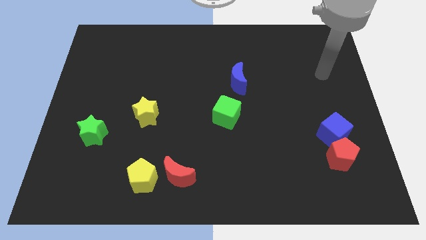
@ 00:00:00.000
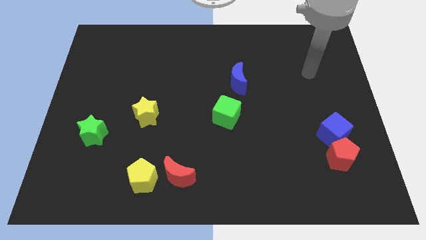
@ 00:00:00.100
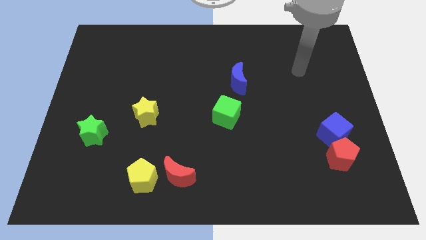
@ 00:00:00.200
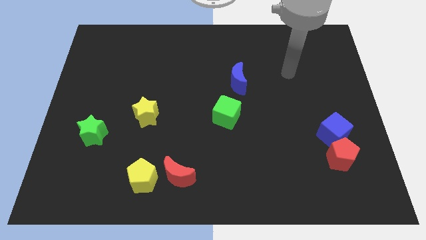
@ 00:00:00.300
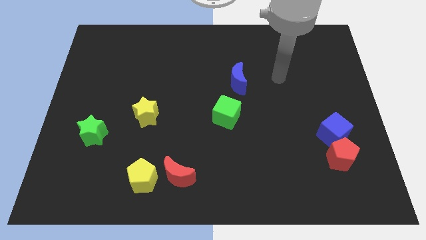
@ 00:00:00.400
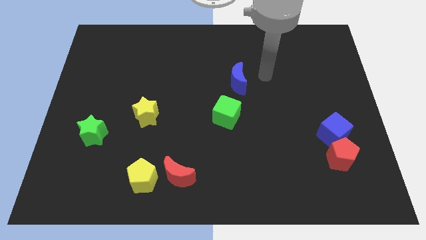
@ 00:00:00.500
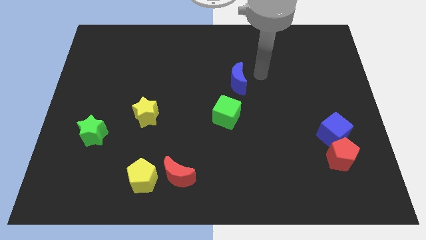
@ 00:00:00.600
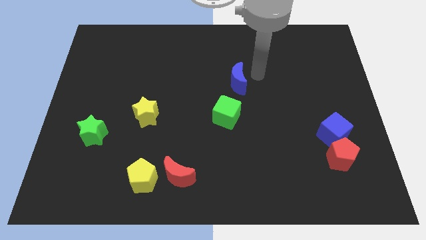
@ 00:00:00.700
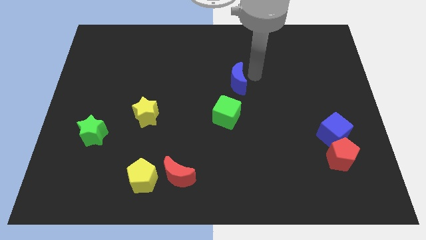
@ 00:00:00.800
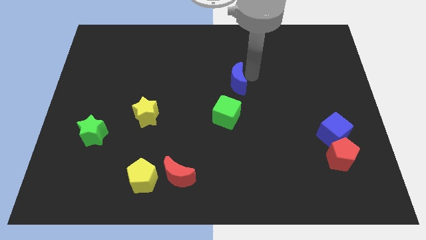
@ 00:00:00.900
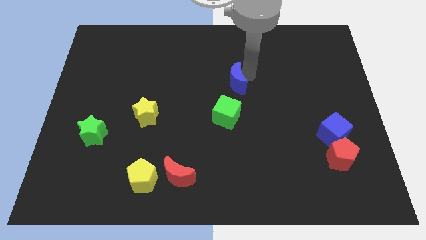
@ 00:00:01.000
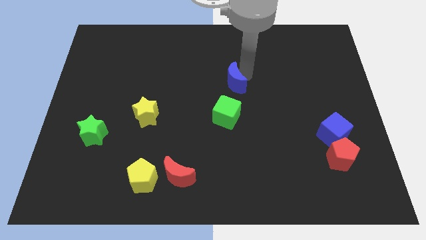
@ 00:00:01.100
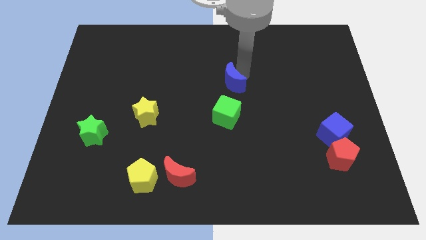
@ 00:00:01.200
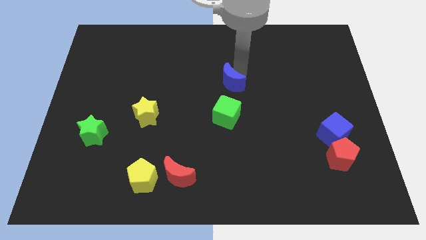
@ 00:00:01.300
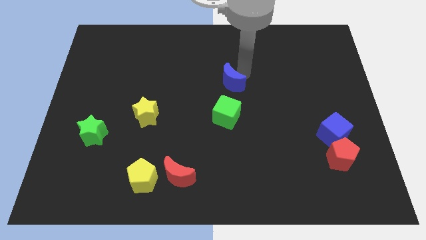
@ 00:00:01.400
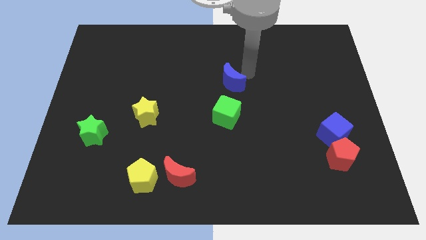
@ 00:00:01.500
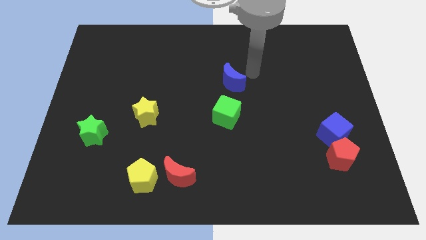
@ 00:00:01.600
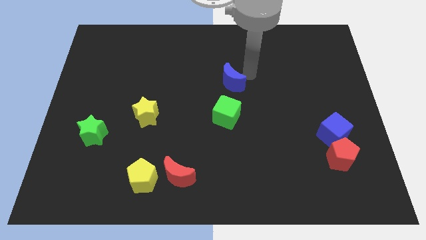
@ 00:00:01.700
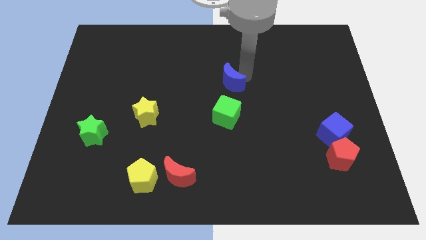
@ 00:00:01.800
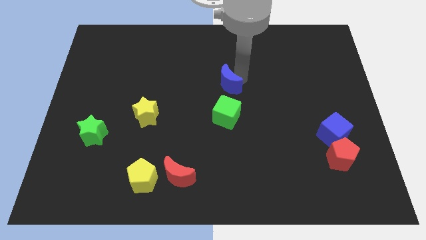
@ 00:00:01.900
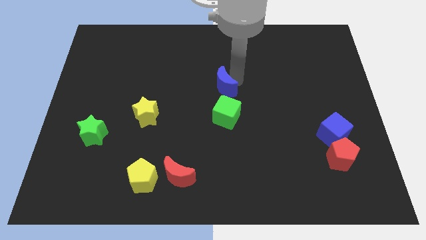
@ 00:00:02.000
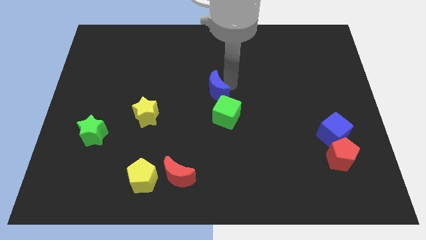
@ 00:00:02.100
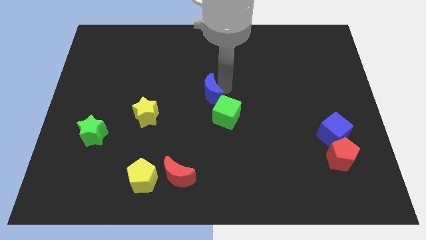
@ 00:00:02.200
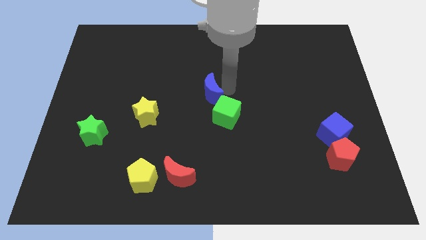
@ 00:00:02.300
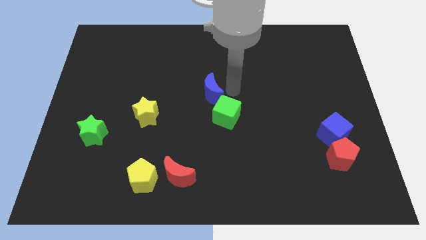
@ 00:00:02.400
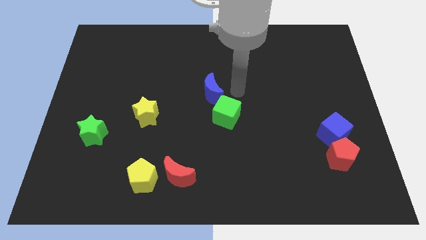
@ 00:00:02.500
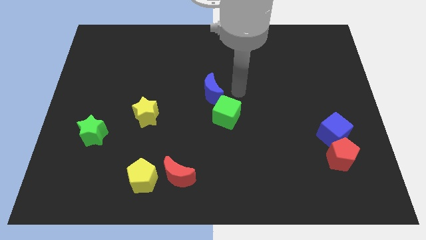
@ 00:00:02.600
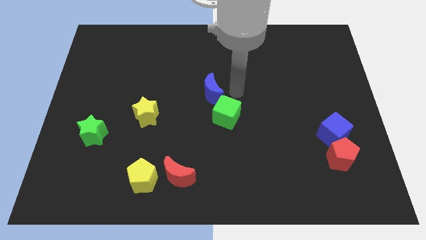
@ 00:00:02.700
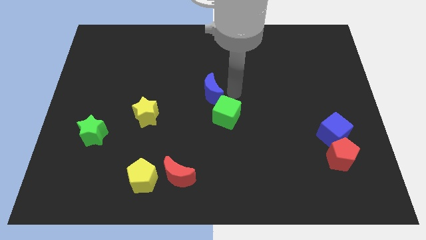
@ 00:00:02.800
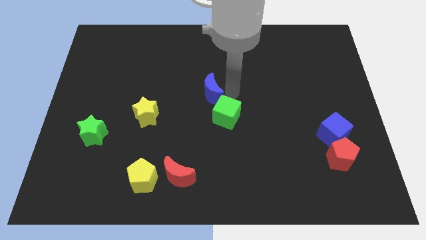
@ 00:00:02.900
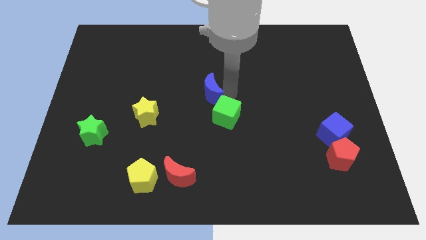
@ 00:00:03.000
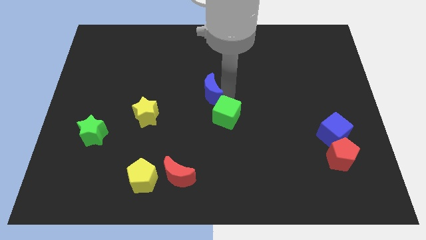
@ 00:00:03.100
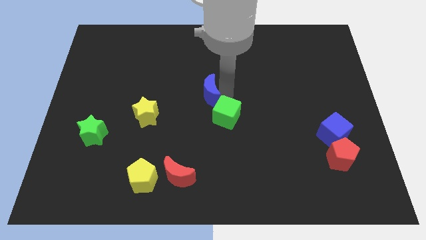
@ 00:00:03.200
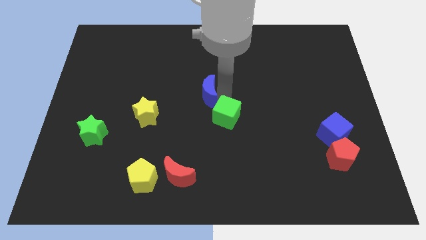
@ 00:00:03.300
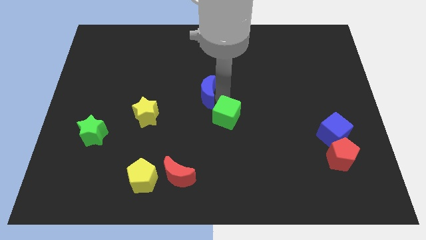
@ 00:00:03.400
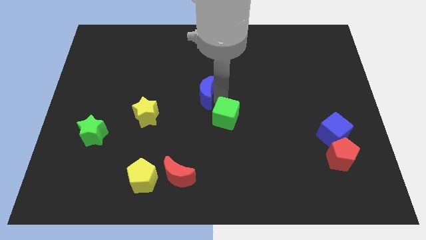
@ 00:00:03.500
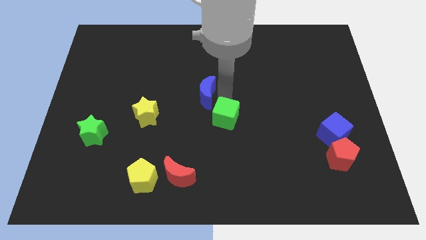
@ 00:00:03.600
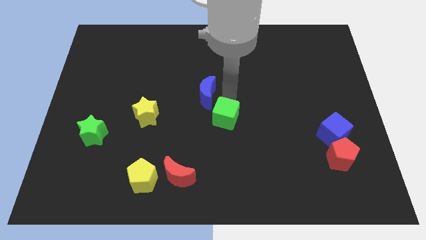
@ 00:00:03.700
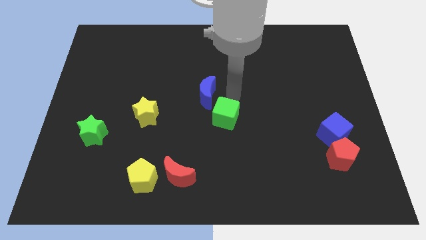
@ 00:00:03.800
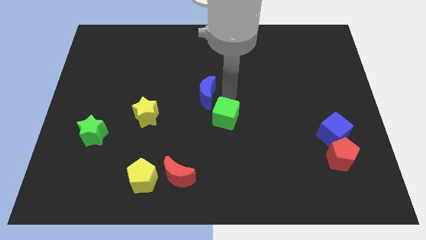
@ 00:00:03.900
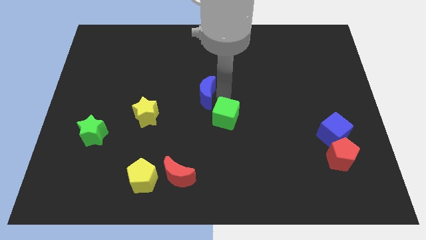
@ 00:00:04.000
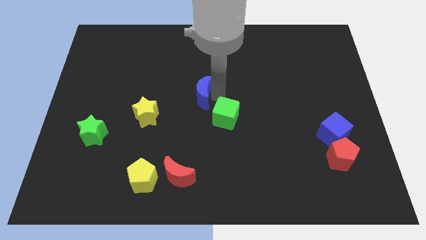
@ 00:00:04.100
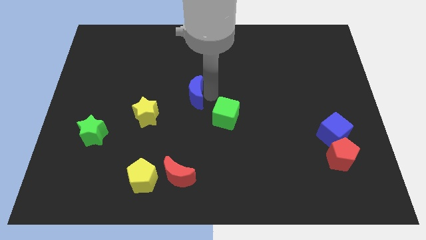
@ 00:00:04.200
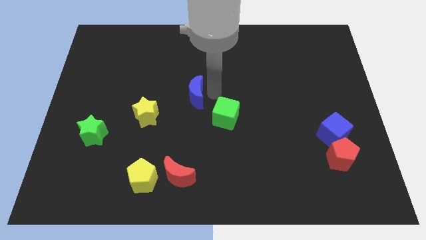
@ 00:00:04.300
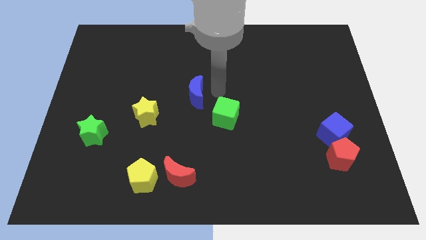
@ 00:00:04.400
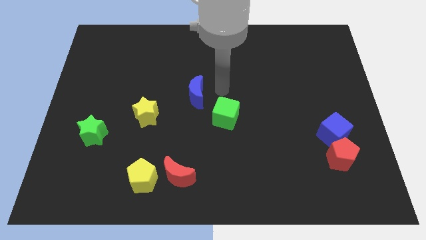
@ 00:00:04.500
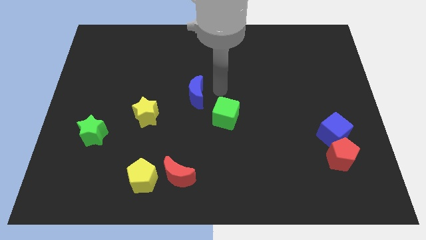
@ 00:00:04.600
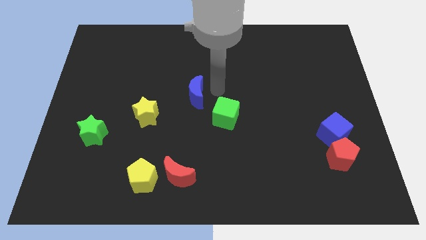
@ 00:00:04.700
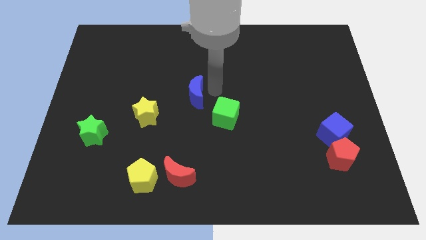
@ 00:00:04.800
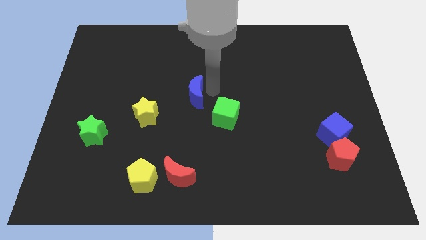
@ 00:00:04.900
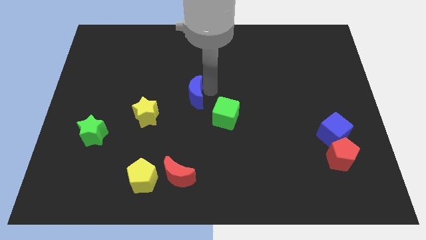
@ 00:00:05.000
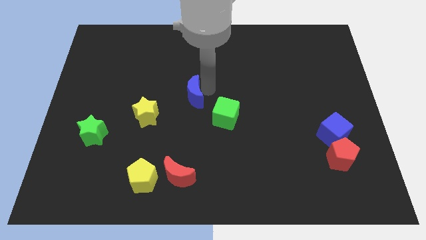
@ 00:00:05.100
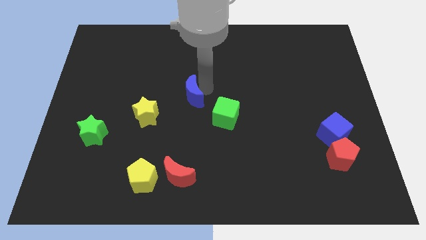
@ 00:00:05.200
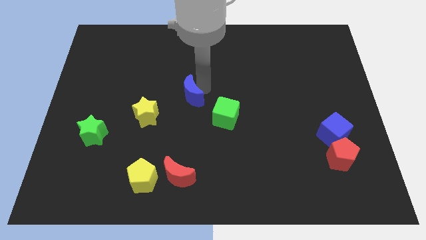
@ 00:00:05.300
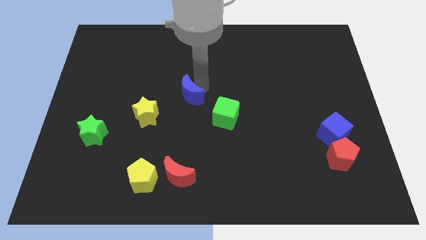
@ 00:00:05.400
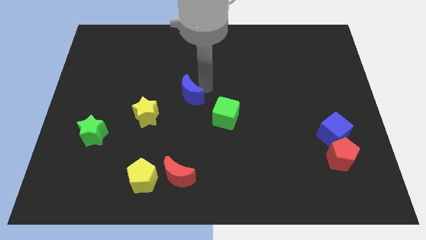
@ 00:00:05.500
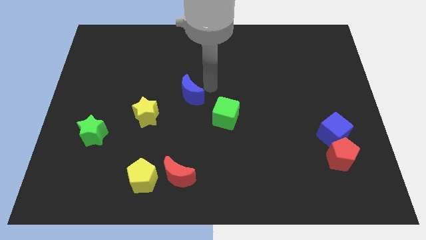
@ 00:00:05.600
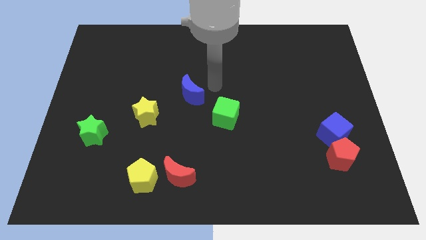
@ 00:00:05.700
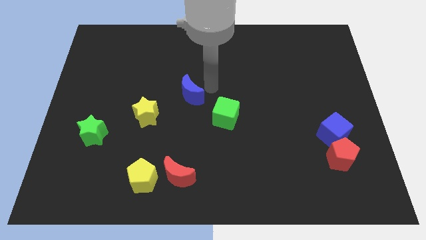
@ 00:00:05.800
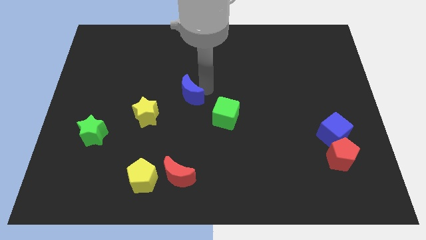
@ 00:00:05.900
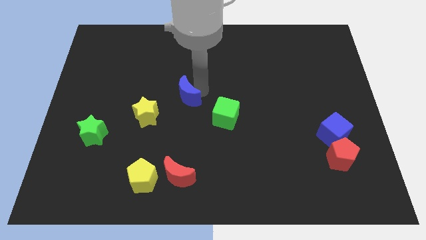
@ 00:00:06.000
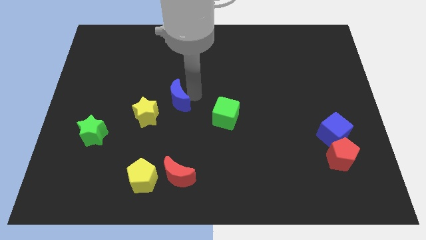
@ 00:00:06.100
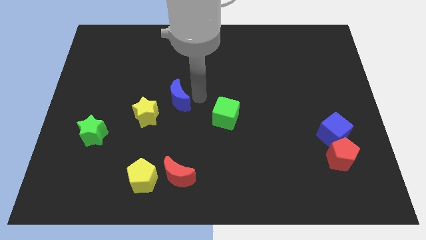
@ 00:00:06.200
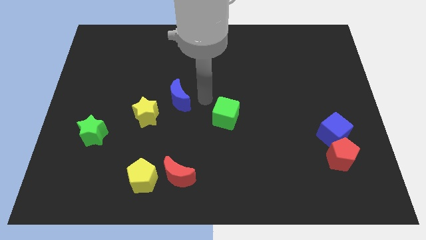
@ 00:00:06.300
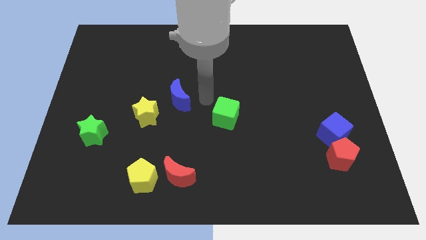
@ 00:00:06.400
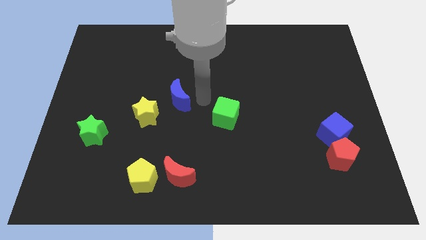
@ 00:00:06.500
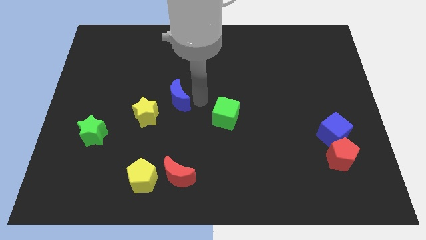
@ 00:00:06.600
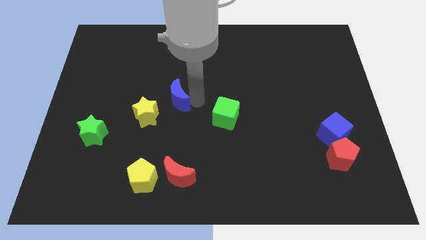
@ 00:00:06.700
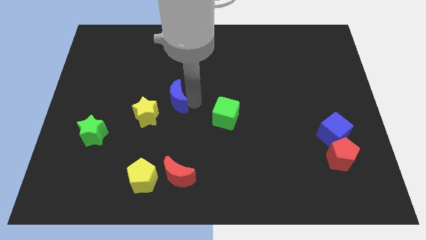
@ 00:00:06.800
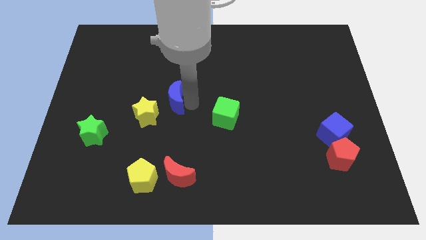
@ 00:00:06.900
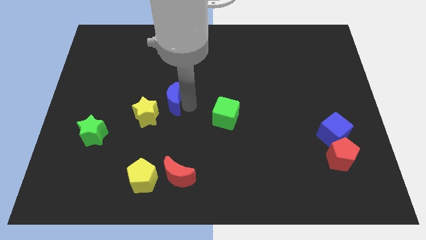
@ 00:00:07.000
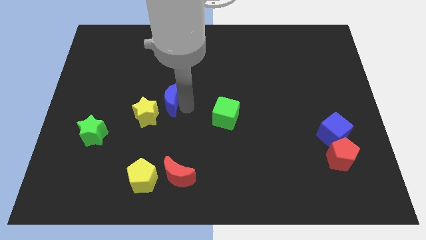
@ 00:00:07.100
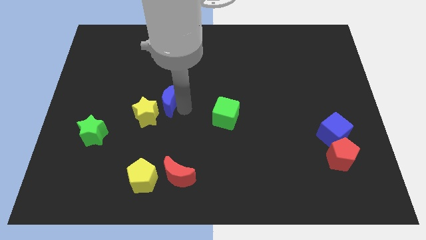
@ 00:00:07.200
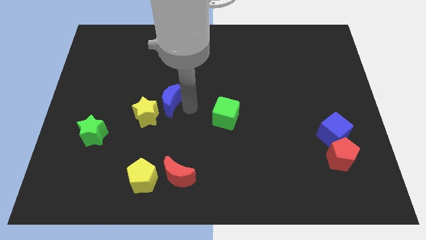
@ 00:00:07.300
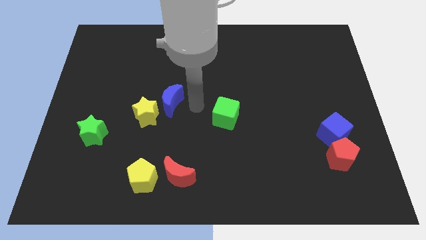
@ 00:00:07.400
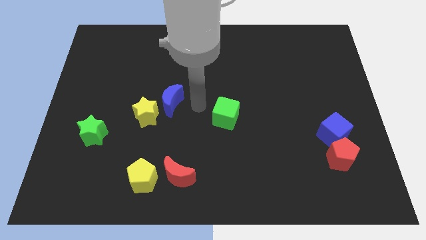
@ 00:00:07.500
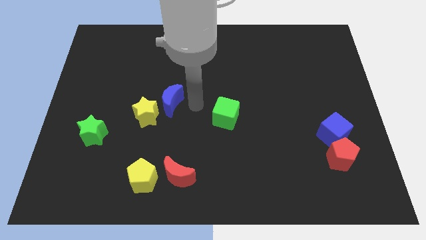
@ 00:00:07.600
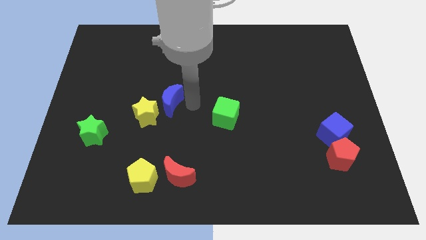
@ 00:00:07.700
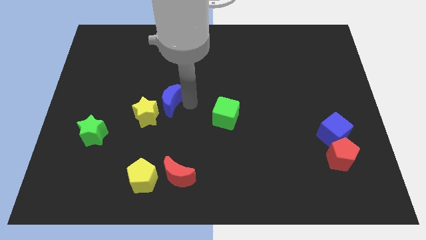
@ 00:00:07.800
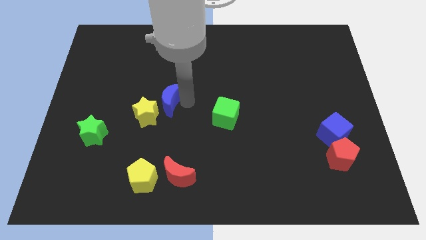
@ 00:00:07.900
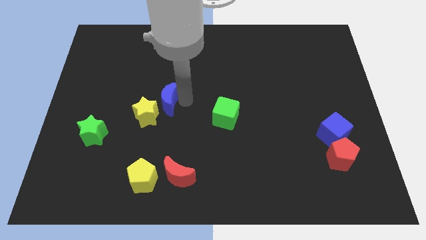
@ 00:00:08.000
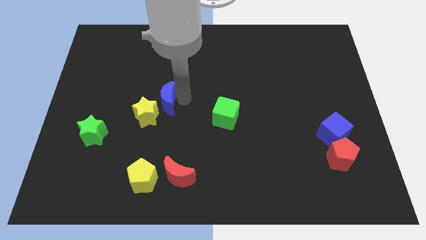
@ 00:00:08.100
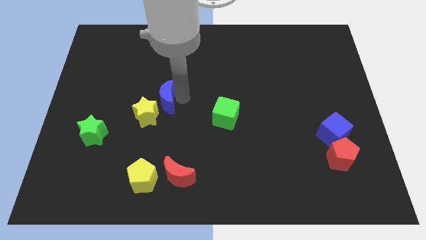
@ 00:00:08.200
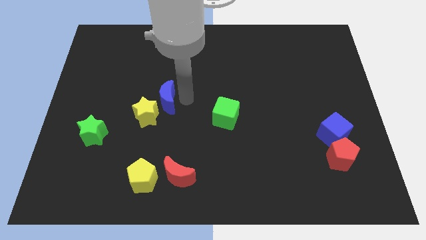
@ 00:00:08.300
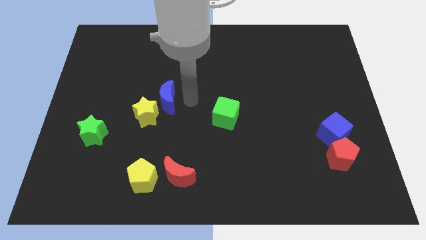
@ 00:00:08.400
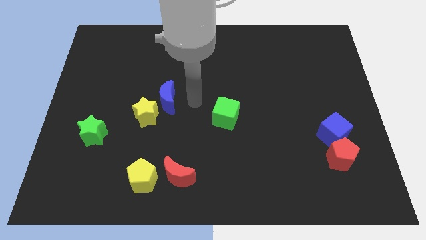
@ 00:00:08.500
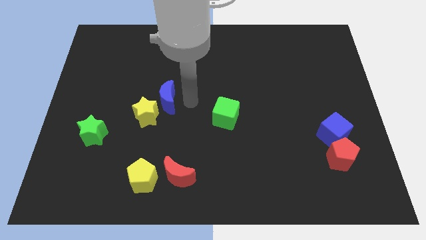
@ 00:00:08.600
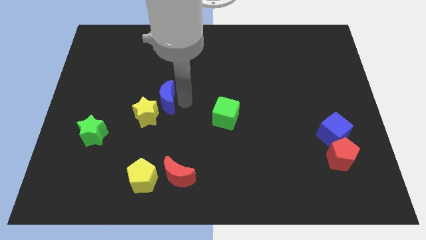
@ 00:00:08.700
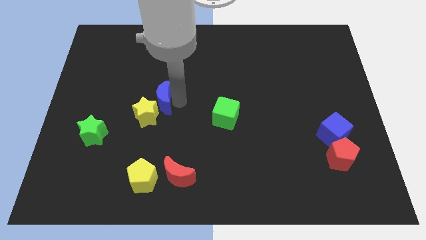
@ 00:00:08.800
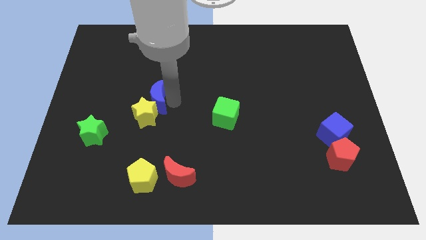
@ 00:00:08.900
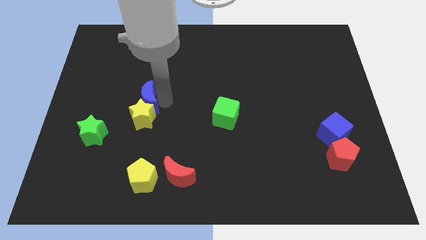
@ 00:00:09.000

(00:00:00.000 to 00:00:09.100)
slide the blue moon to the top left side of the yellow star
